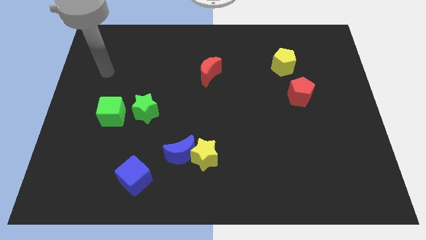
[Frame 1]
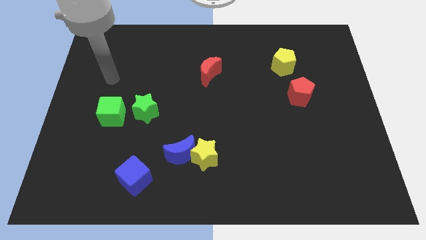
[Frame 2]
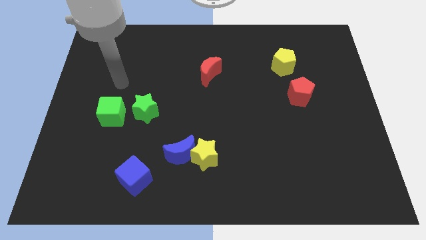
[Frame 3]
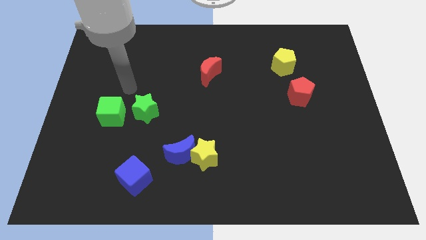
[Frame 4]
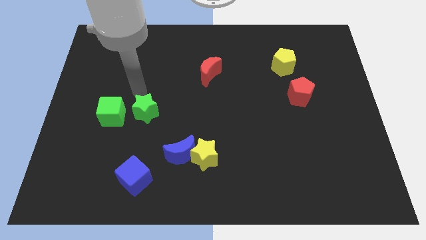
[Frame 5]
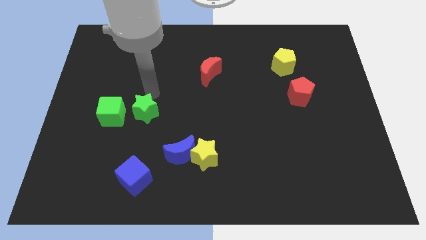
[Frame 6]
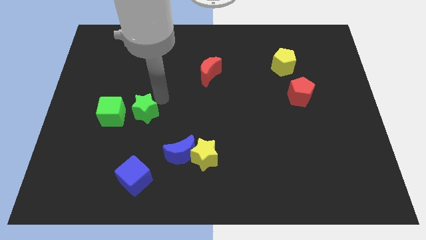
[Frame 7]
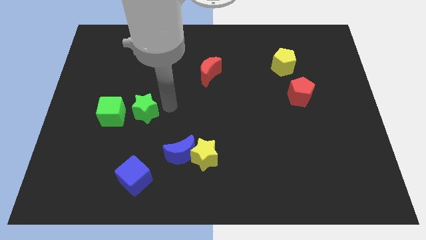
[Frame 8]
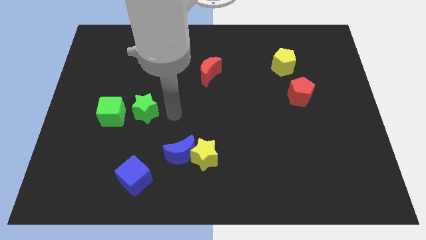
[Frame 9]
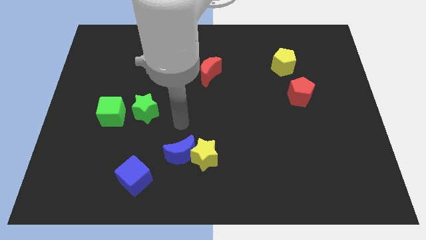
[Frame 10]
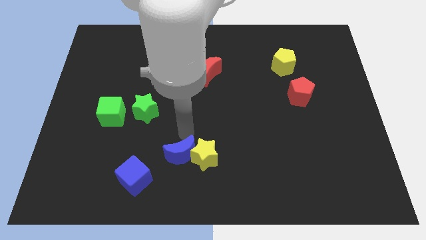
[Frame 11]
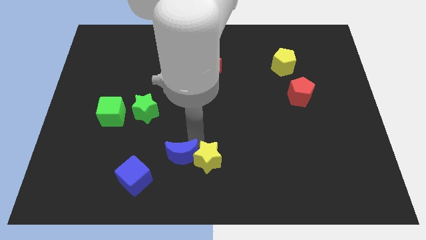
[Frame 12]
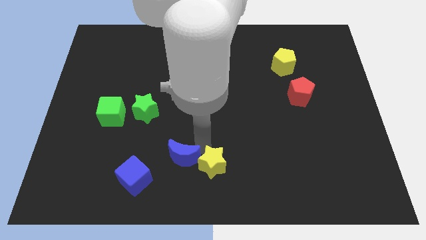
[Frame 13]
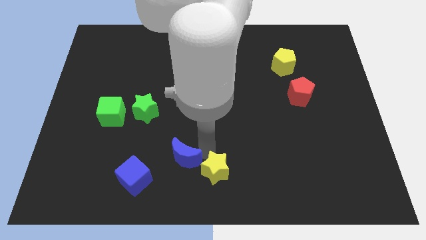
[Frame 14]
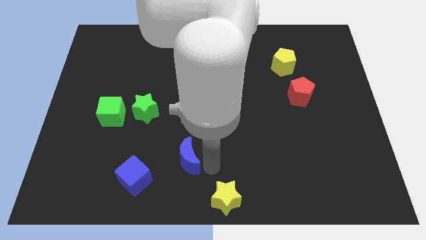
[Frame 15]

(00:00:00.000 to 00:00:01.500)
separate the blue moon from the yellow star

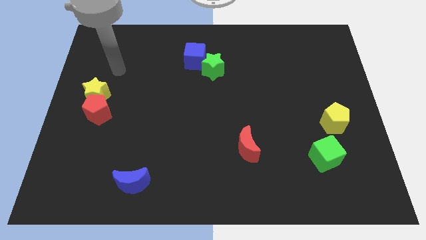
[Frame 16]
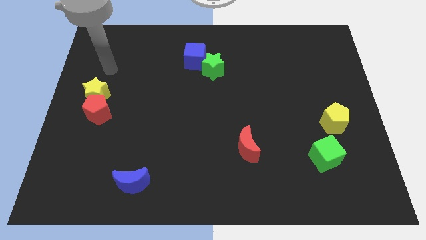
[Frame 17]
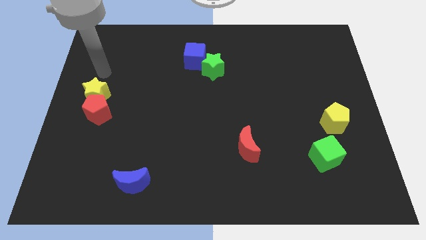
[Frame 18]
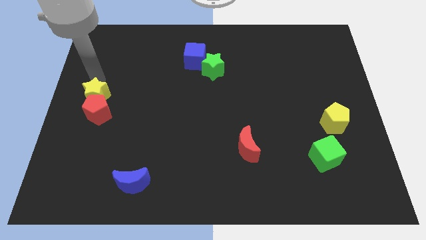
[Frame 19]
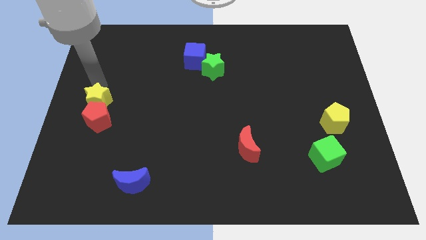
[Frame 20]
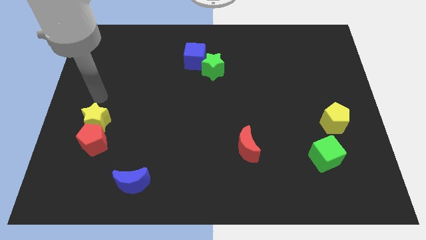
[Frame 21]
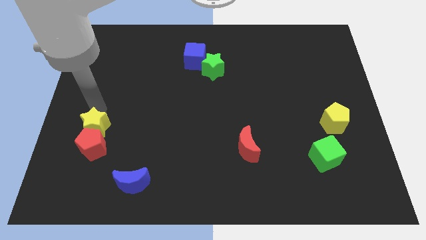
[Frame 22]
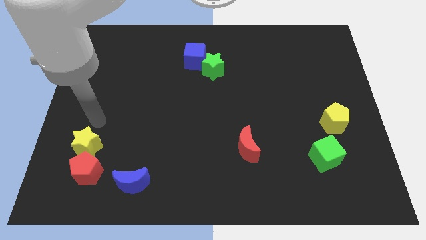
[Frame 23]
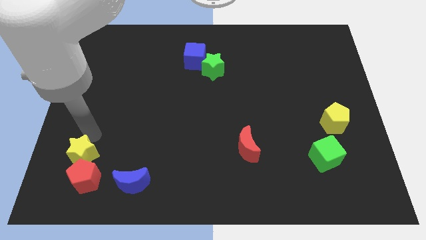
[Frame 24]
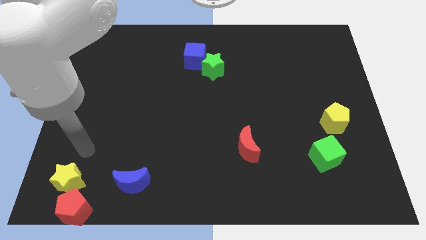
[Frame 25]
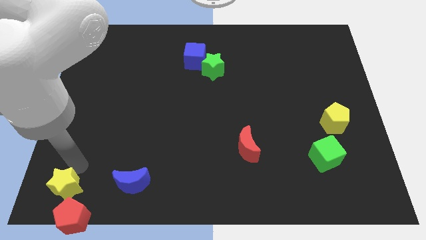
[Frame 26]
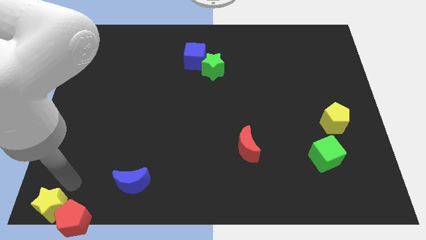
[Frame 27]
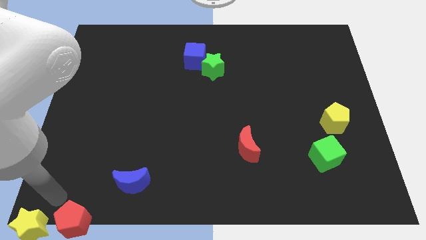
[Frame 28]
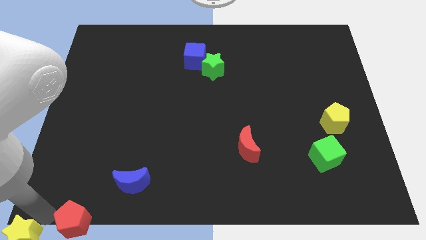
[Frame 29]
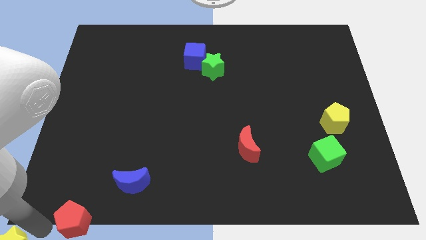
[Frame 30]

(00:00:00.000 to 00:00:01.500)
separate the red pentagon from the yellow star

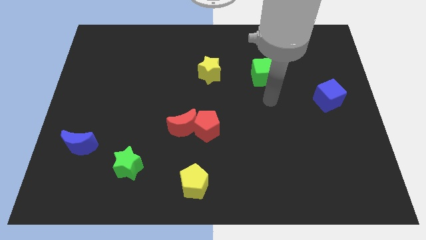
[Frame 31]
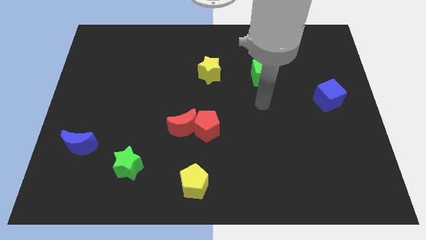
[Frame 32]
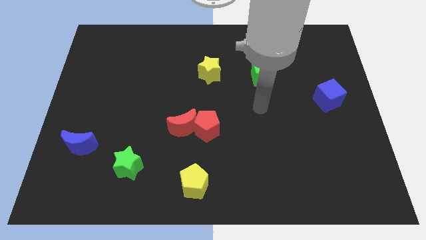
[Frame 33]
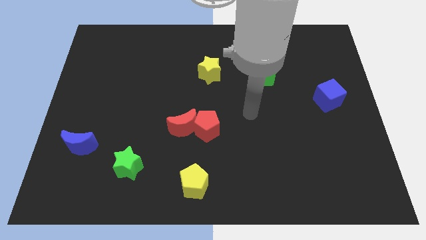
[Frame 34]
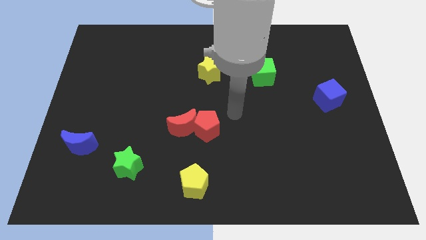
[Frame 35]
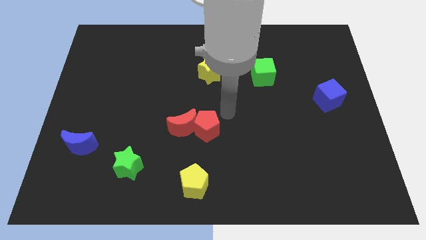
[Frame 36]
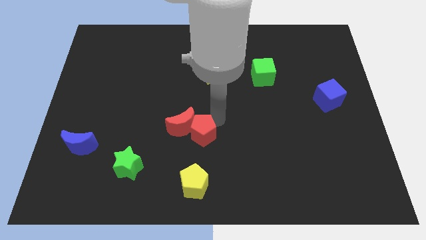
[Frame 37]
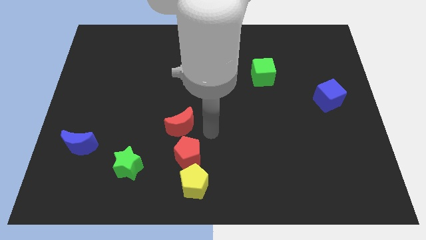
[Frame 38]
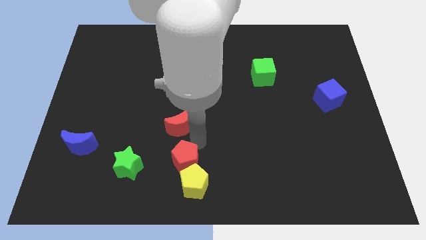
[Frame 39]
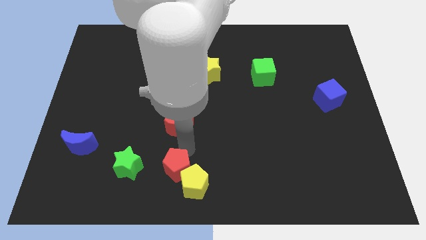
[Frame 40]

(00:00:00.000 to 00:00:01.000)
move the red moon away from the red pentagon

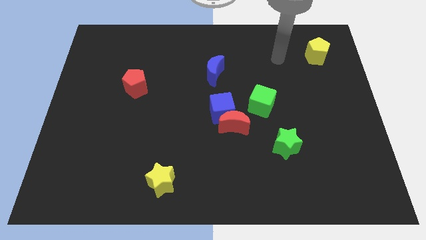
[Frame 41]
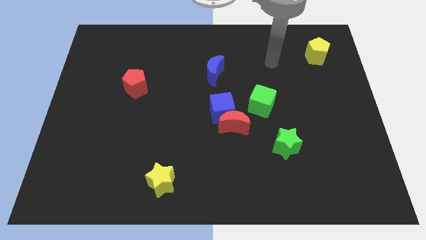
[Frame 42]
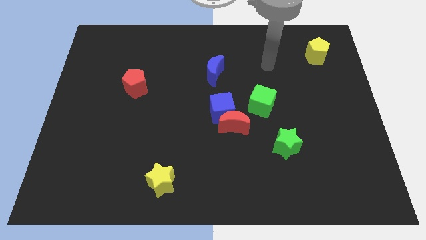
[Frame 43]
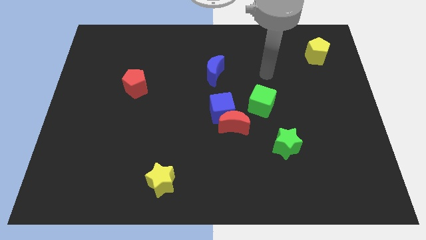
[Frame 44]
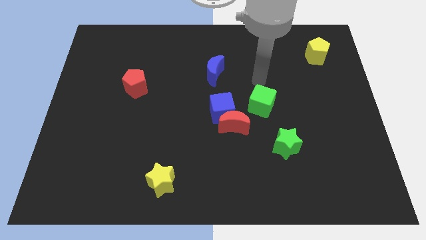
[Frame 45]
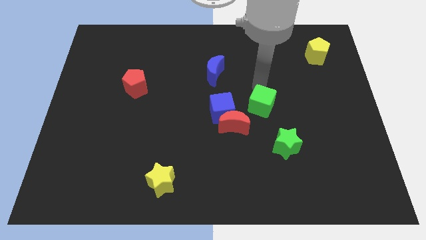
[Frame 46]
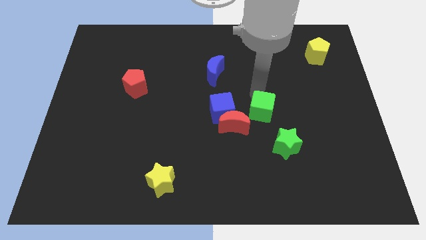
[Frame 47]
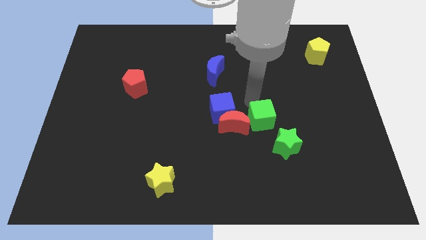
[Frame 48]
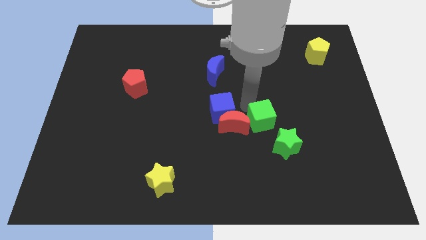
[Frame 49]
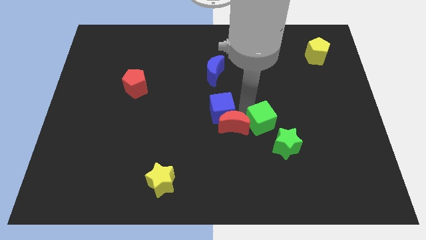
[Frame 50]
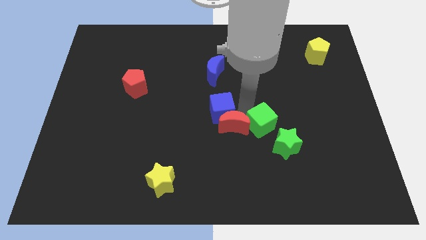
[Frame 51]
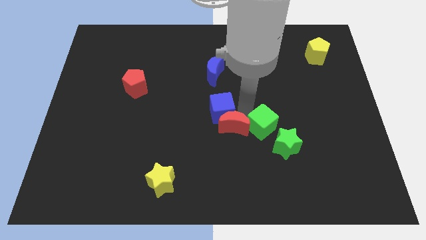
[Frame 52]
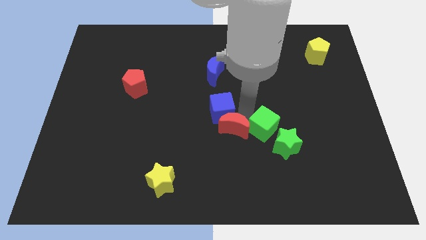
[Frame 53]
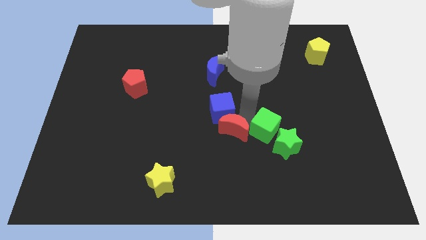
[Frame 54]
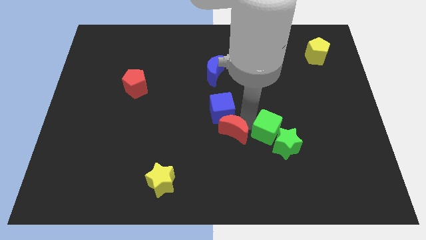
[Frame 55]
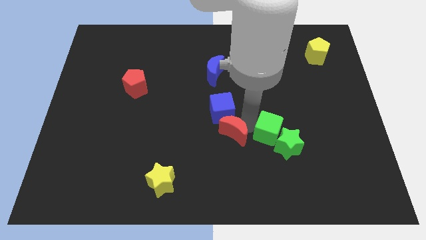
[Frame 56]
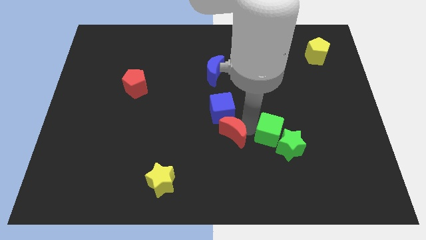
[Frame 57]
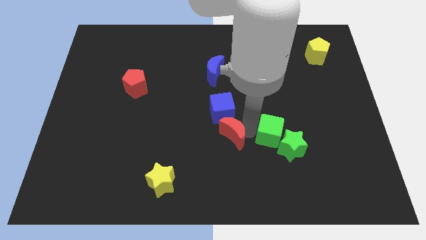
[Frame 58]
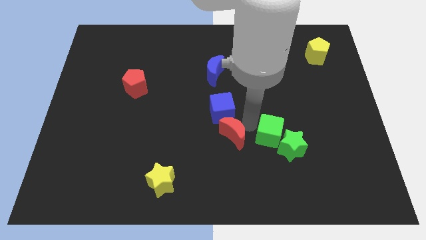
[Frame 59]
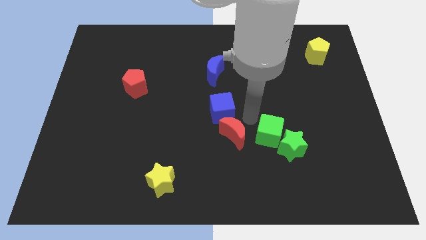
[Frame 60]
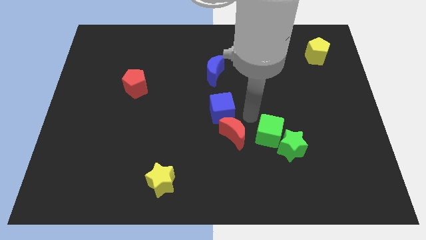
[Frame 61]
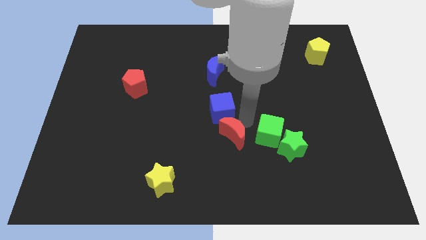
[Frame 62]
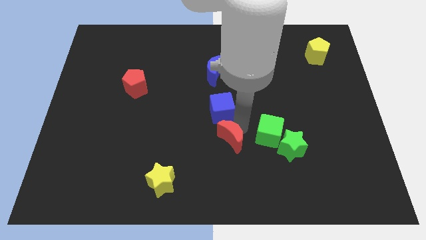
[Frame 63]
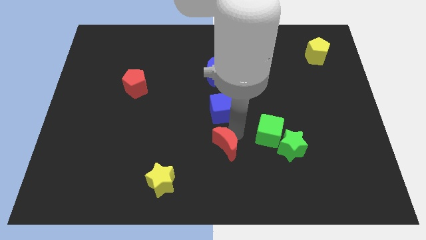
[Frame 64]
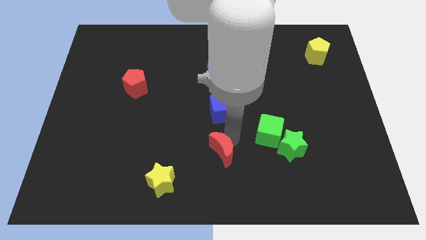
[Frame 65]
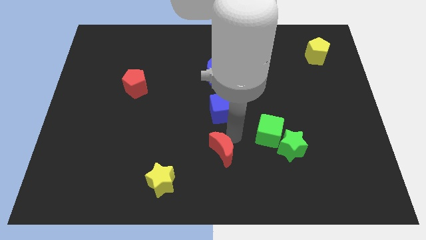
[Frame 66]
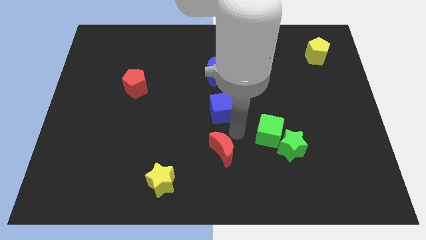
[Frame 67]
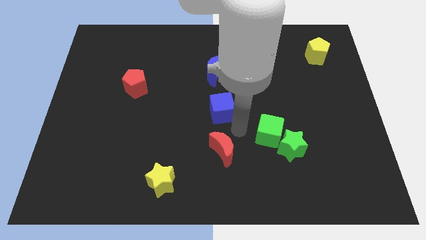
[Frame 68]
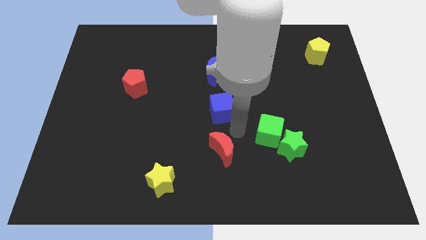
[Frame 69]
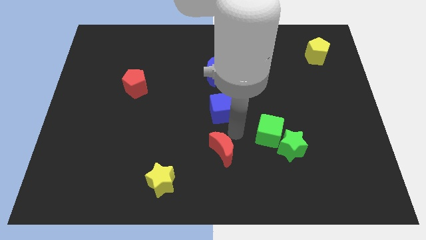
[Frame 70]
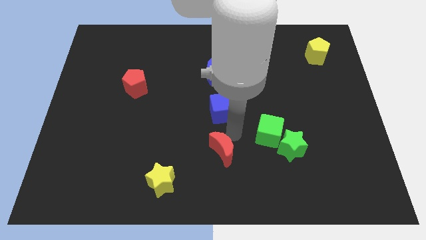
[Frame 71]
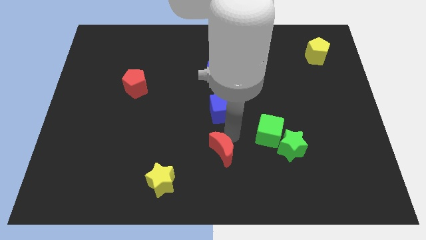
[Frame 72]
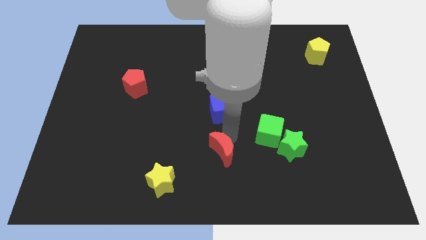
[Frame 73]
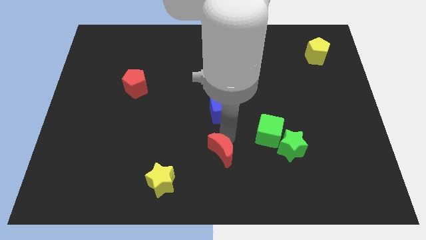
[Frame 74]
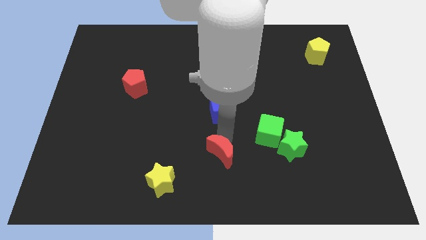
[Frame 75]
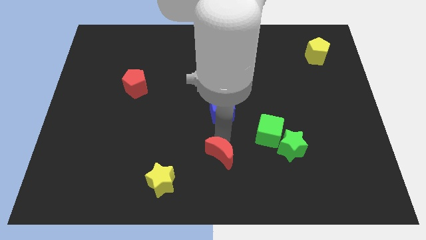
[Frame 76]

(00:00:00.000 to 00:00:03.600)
separate the red moon from the blue cube and green cube

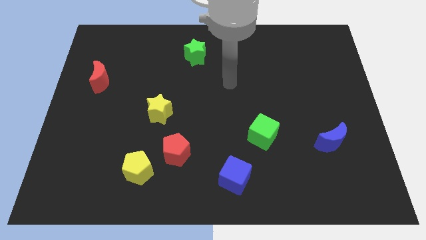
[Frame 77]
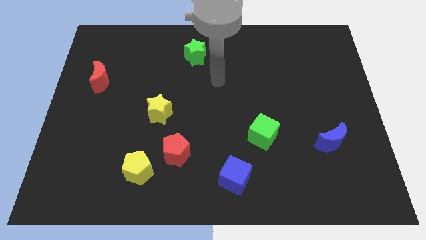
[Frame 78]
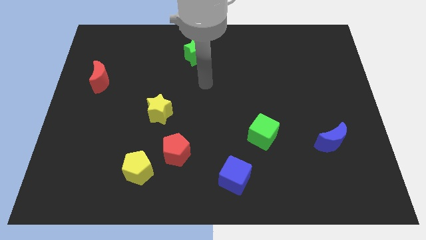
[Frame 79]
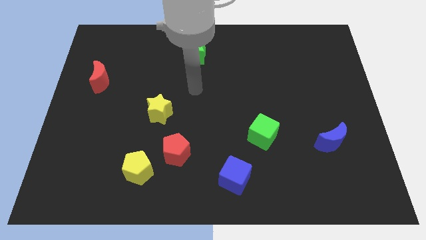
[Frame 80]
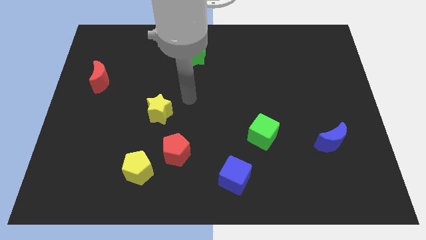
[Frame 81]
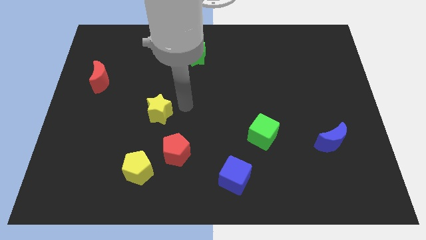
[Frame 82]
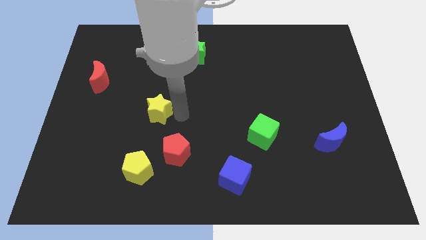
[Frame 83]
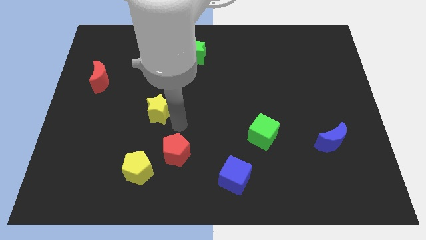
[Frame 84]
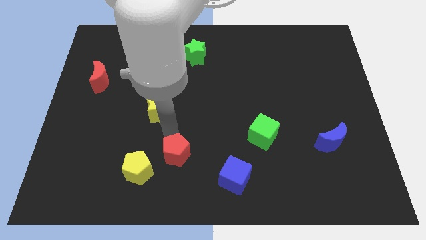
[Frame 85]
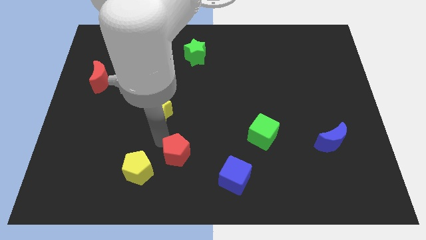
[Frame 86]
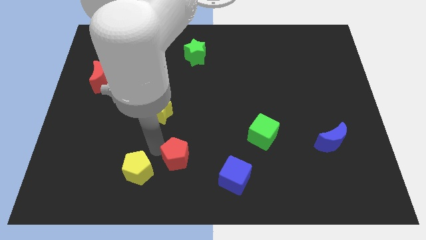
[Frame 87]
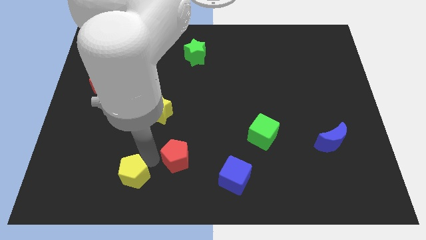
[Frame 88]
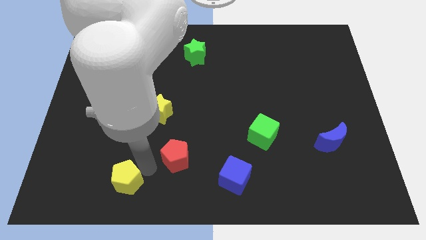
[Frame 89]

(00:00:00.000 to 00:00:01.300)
move the red pentagon away from the yellow pentagon

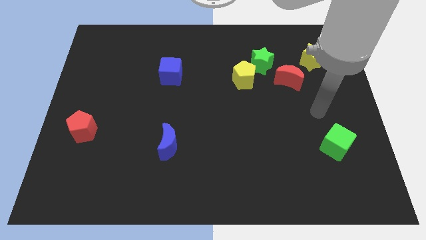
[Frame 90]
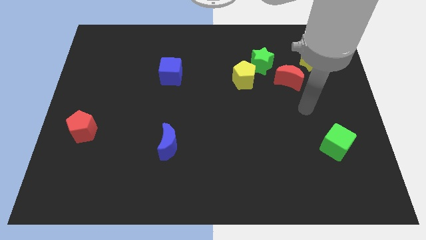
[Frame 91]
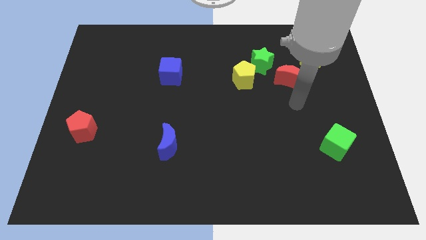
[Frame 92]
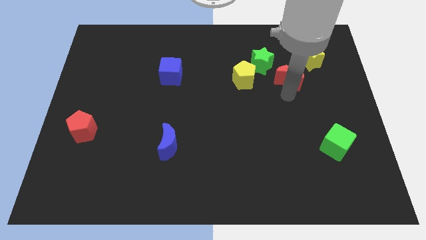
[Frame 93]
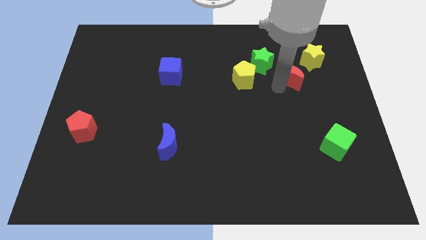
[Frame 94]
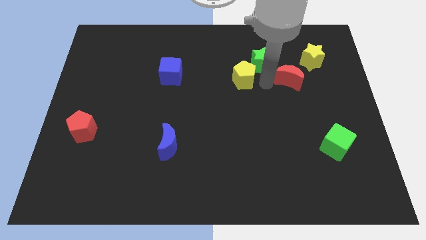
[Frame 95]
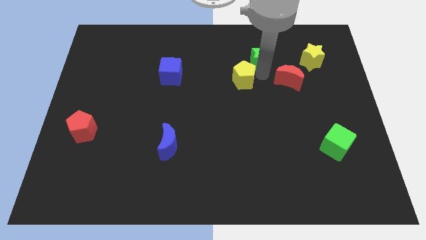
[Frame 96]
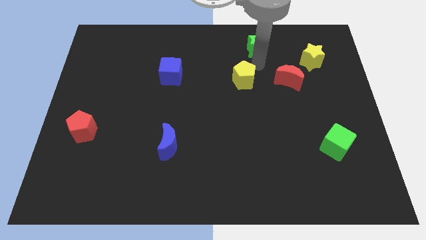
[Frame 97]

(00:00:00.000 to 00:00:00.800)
separate the yellow pentagon from the green star
